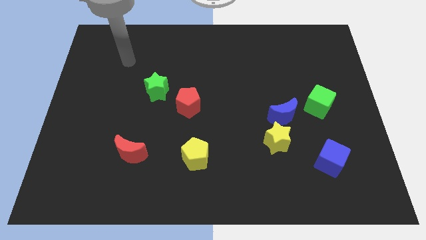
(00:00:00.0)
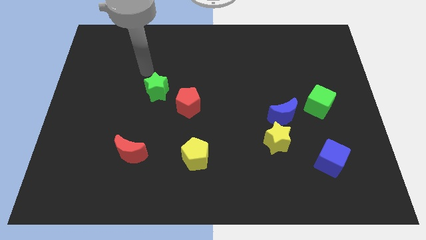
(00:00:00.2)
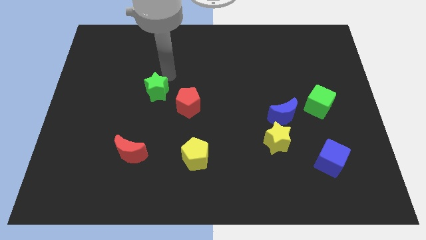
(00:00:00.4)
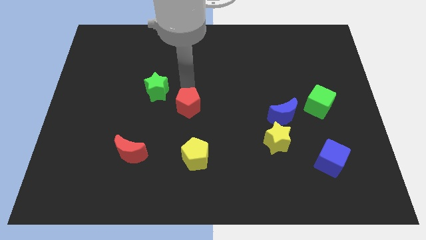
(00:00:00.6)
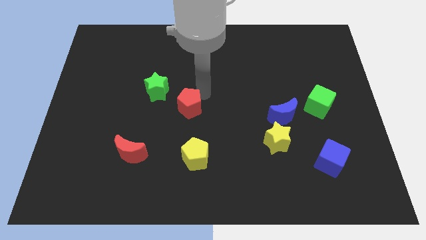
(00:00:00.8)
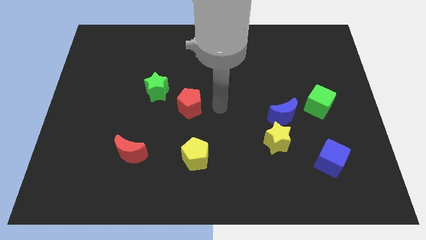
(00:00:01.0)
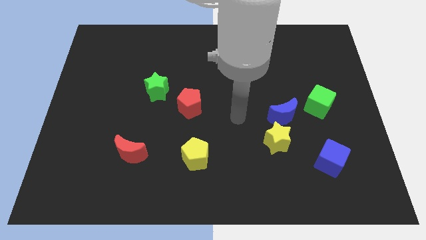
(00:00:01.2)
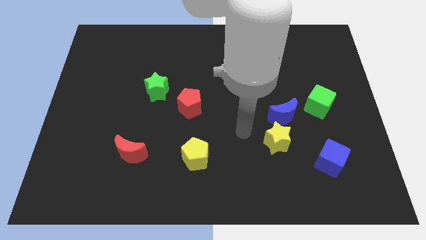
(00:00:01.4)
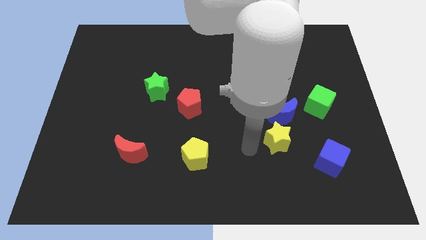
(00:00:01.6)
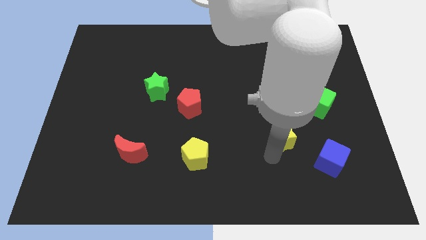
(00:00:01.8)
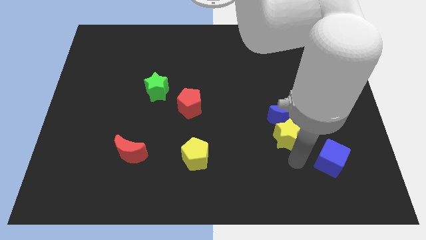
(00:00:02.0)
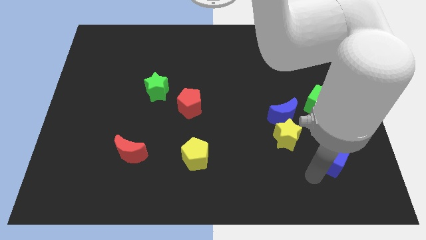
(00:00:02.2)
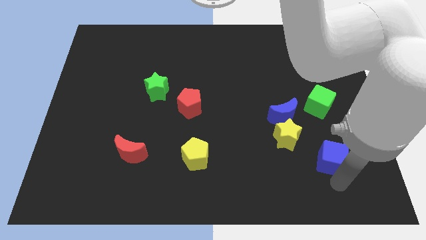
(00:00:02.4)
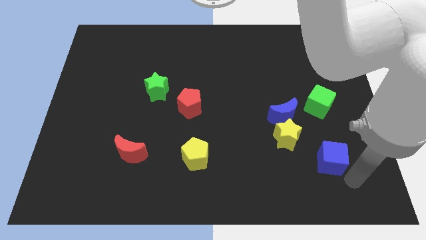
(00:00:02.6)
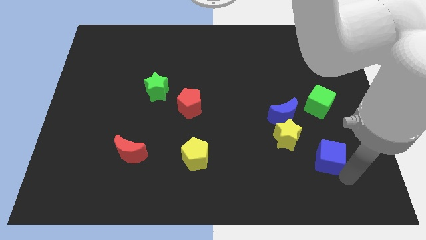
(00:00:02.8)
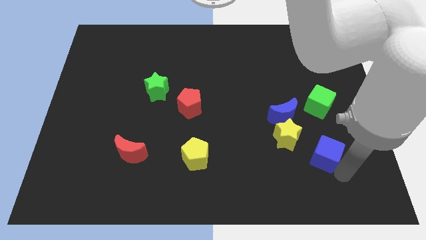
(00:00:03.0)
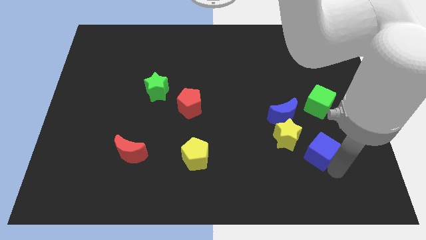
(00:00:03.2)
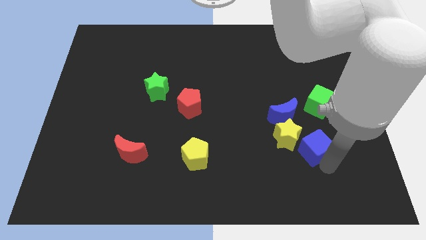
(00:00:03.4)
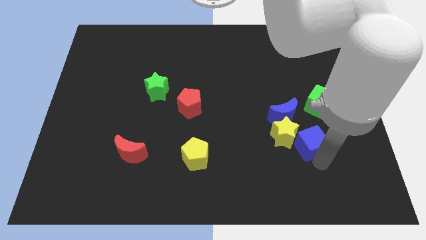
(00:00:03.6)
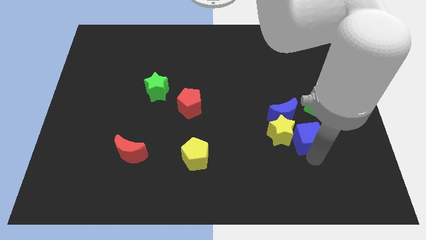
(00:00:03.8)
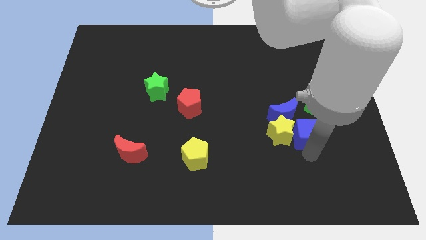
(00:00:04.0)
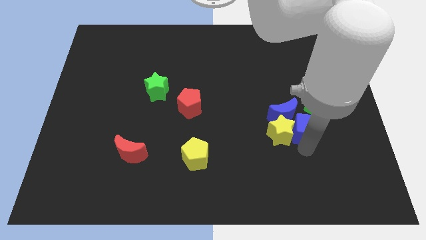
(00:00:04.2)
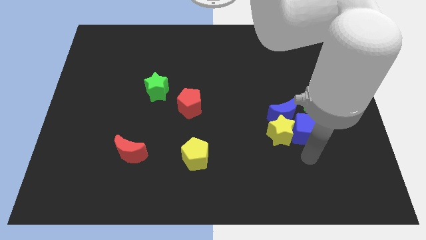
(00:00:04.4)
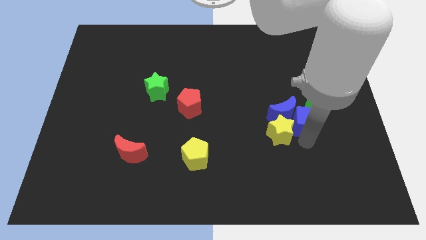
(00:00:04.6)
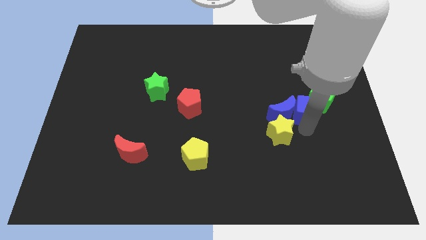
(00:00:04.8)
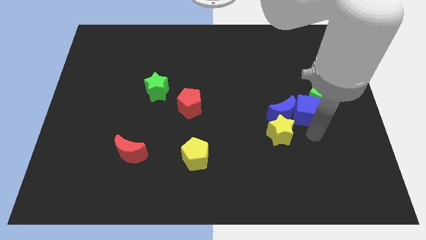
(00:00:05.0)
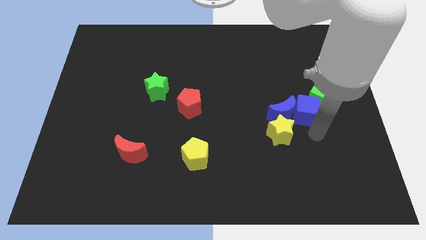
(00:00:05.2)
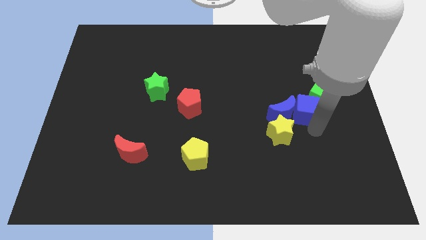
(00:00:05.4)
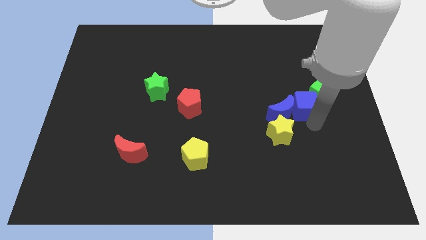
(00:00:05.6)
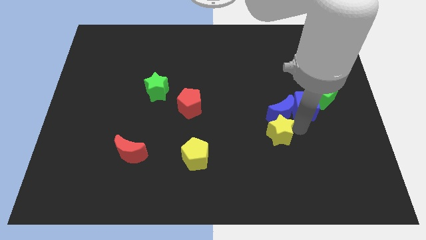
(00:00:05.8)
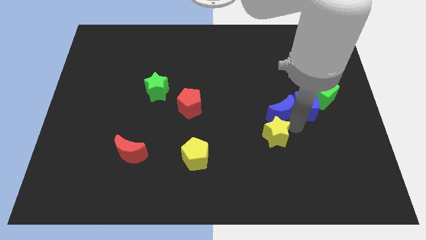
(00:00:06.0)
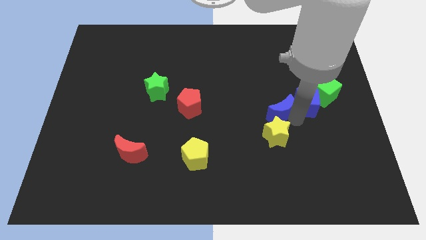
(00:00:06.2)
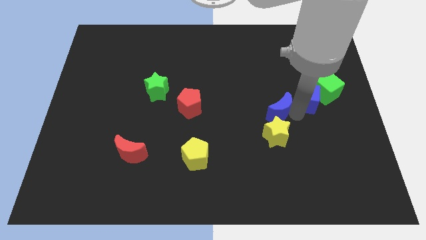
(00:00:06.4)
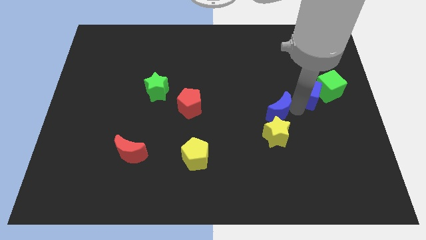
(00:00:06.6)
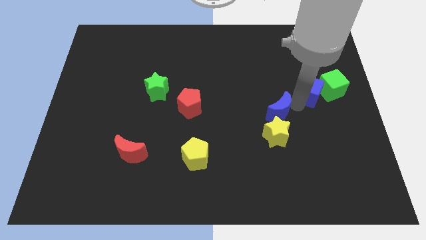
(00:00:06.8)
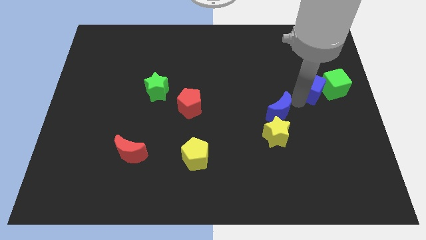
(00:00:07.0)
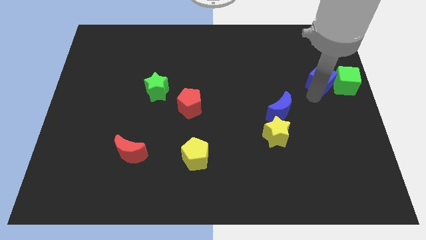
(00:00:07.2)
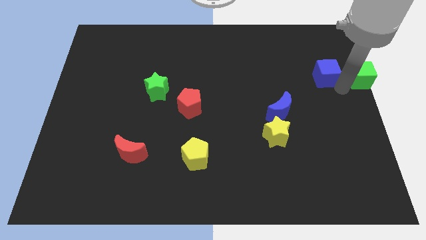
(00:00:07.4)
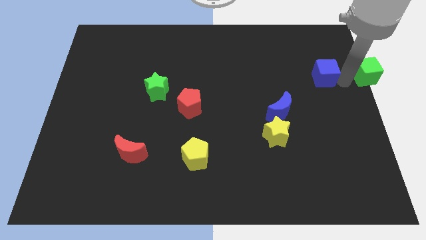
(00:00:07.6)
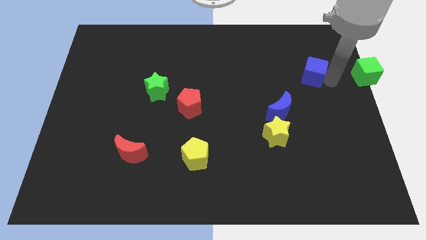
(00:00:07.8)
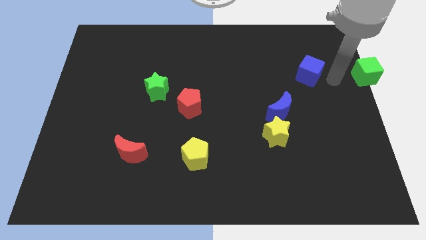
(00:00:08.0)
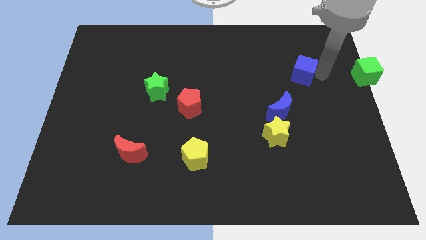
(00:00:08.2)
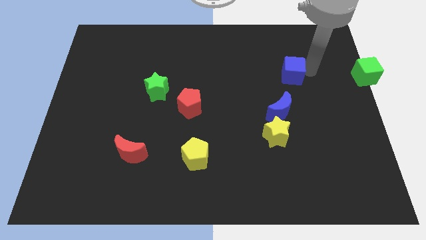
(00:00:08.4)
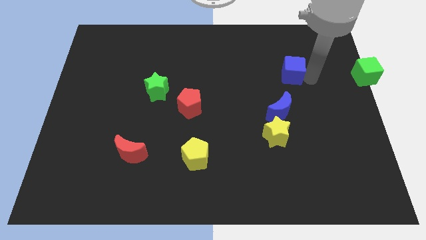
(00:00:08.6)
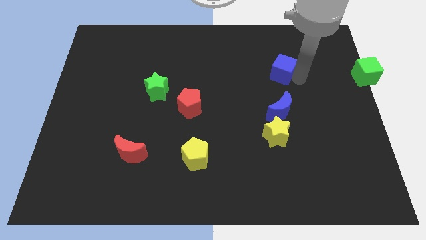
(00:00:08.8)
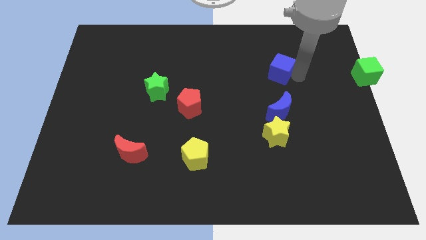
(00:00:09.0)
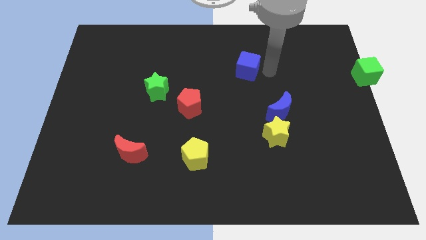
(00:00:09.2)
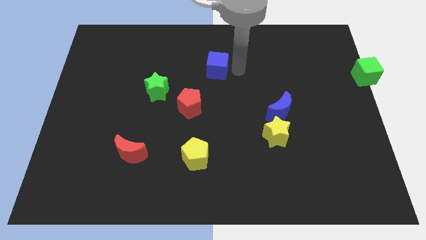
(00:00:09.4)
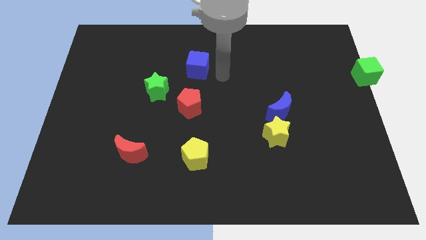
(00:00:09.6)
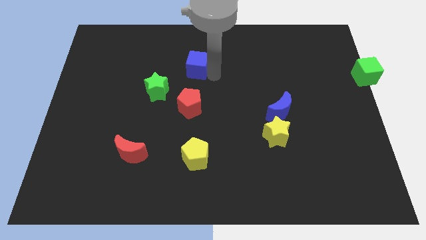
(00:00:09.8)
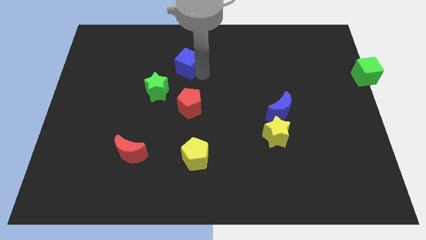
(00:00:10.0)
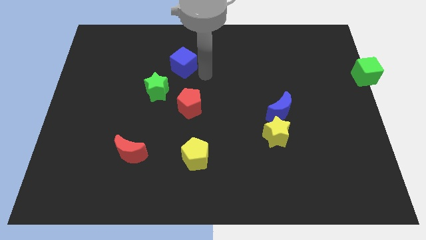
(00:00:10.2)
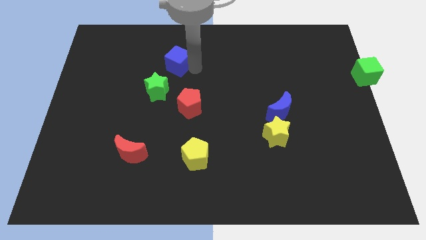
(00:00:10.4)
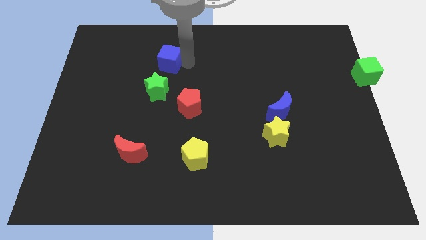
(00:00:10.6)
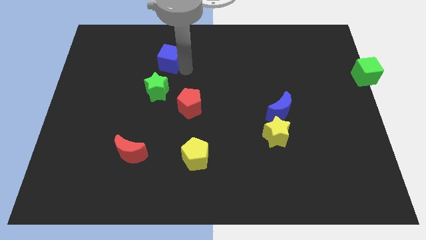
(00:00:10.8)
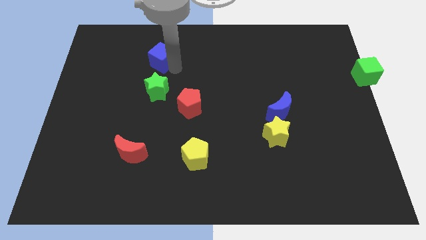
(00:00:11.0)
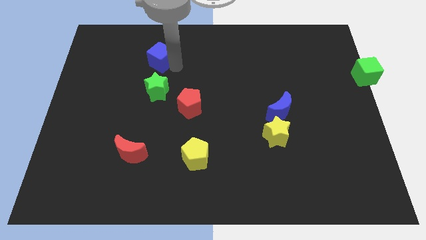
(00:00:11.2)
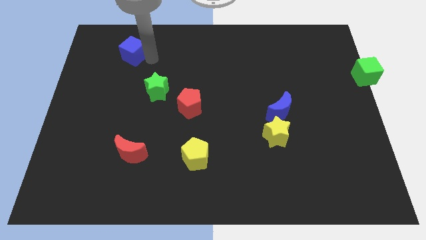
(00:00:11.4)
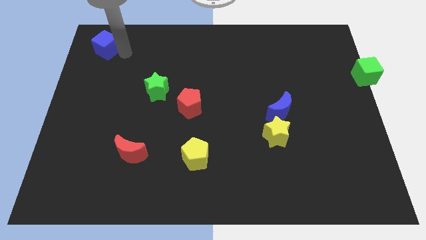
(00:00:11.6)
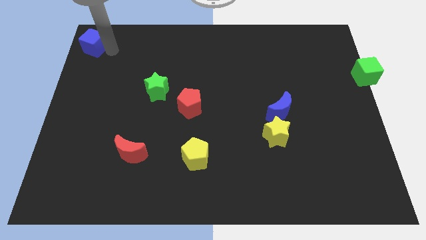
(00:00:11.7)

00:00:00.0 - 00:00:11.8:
put the blue cube to the upper left corner

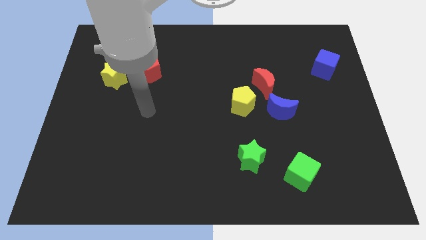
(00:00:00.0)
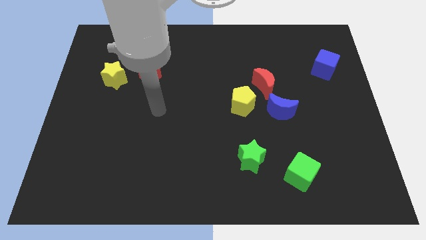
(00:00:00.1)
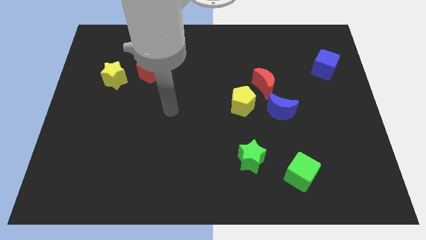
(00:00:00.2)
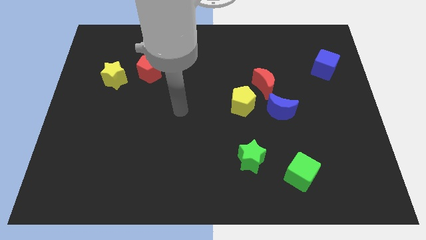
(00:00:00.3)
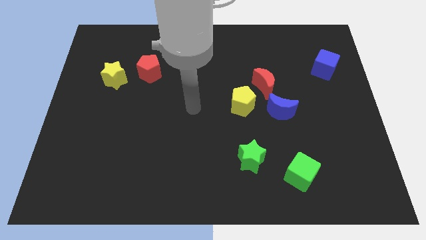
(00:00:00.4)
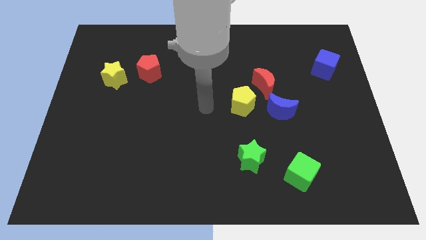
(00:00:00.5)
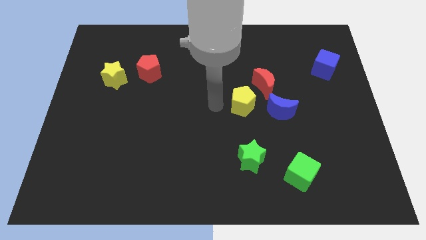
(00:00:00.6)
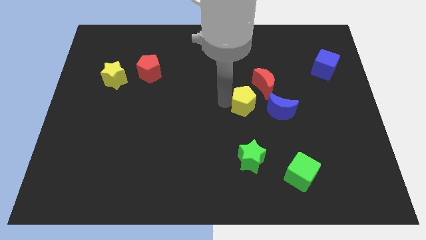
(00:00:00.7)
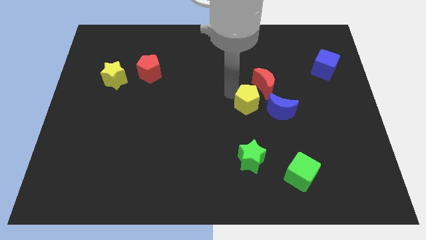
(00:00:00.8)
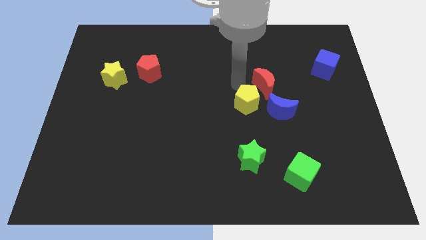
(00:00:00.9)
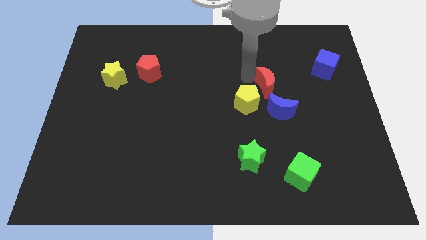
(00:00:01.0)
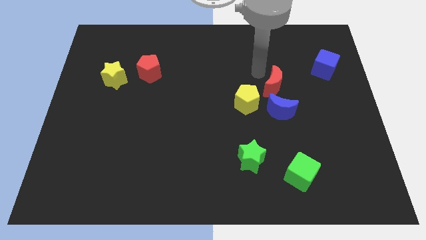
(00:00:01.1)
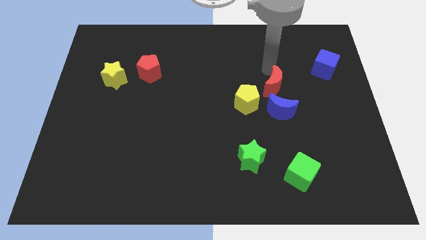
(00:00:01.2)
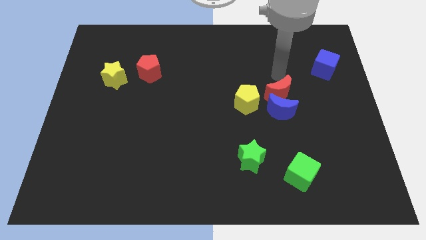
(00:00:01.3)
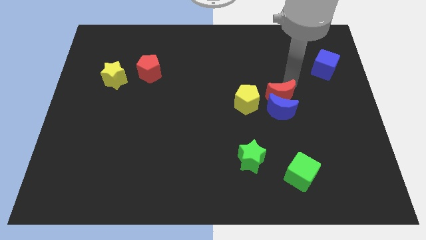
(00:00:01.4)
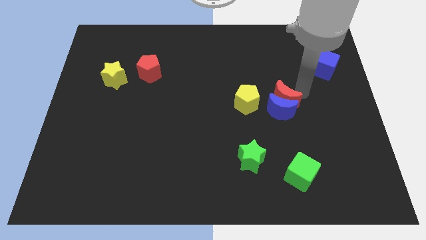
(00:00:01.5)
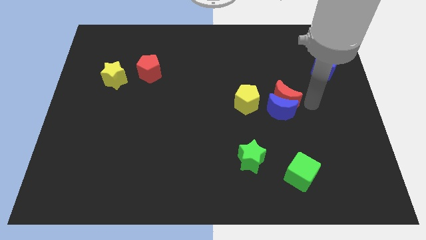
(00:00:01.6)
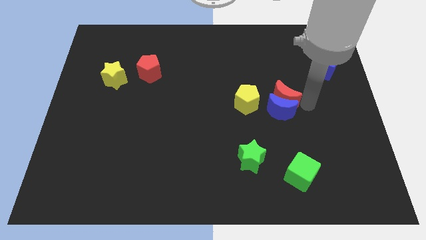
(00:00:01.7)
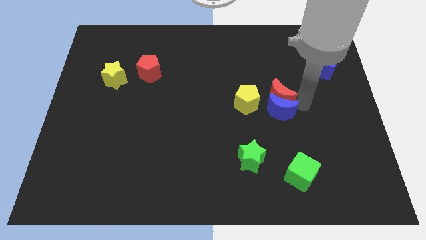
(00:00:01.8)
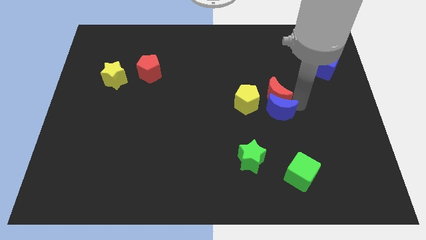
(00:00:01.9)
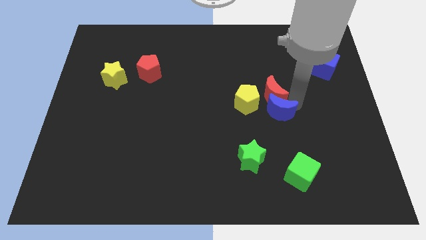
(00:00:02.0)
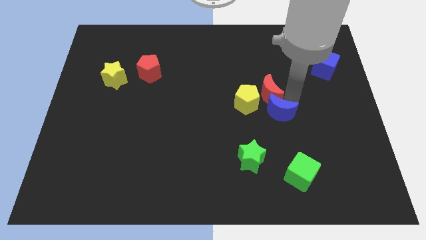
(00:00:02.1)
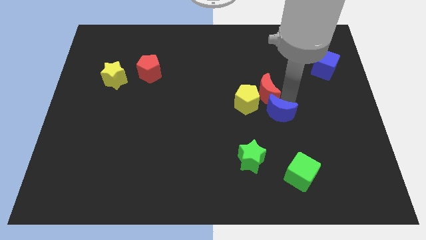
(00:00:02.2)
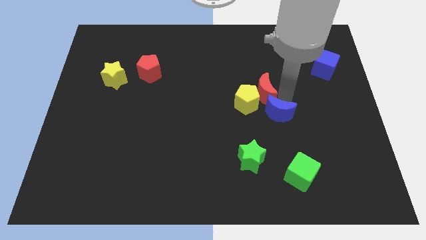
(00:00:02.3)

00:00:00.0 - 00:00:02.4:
slide the red moon to the middle of the board
